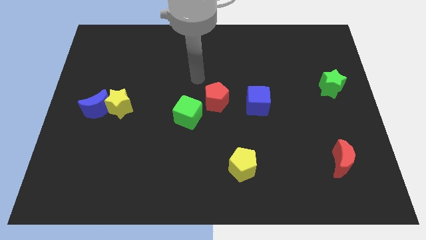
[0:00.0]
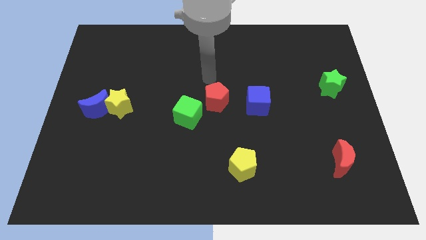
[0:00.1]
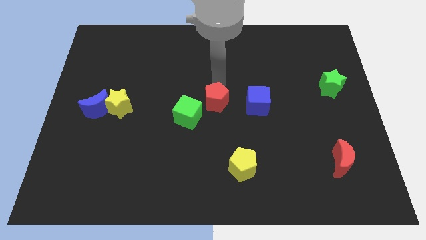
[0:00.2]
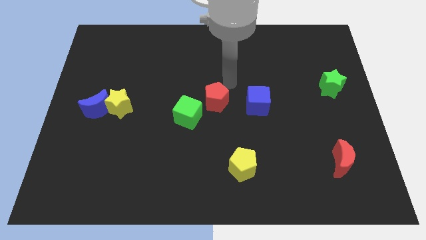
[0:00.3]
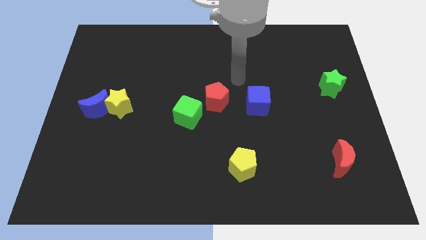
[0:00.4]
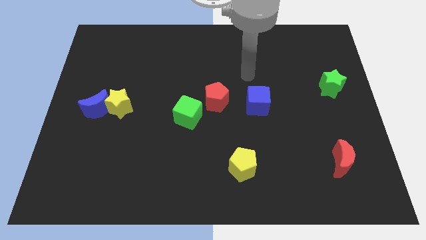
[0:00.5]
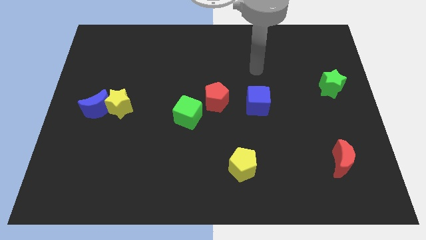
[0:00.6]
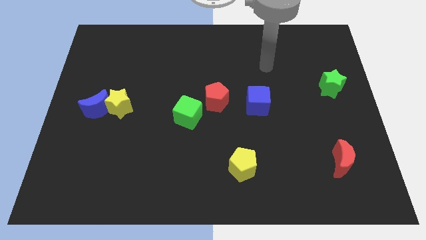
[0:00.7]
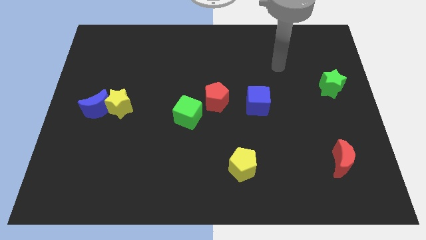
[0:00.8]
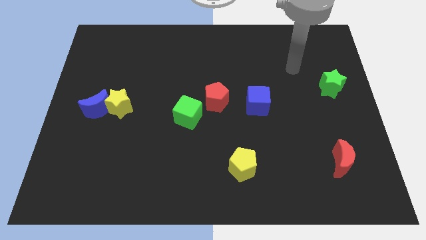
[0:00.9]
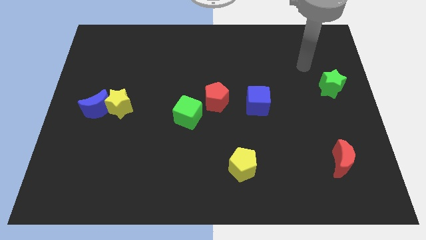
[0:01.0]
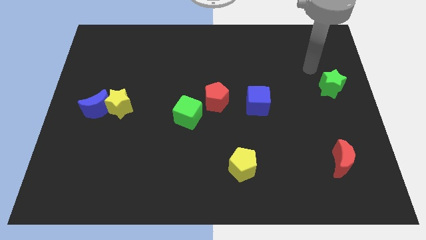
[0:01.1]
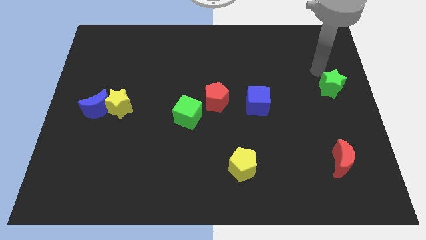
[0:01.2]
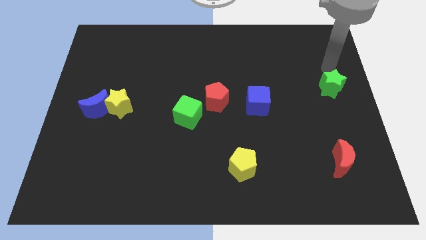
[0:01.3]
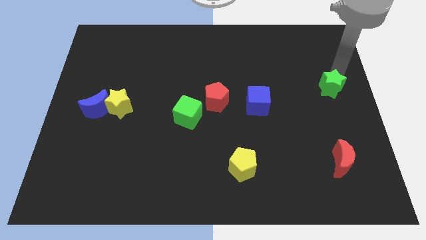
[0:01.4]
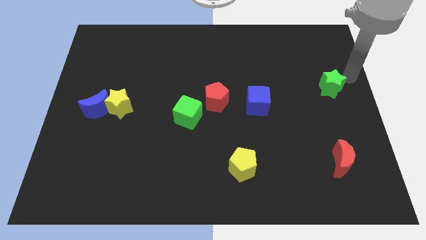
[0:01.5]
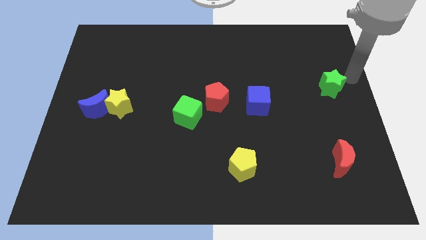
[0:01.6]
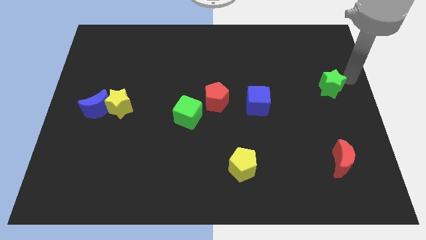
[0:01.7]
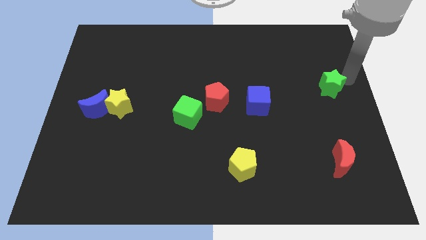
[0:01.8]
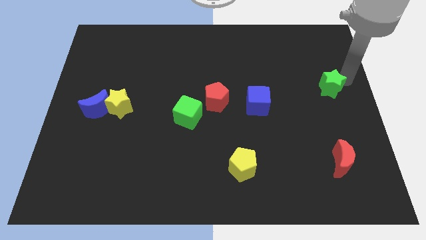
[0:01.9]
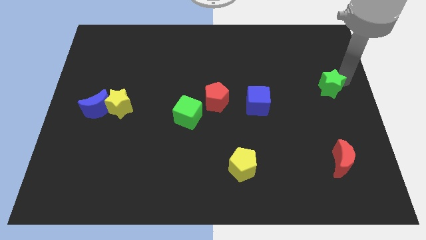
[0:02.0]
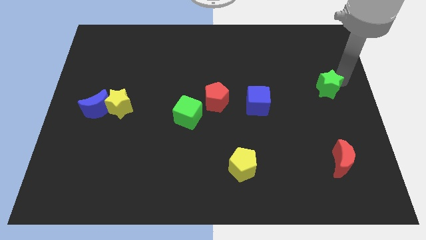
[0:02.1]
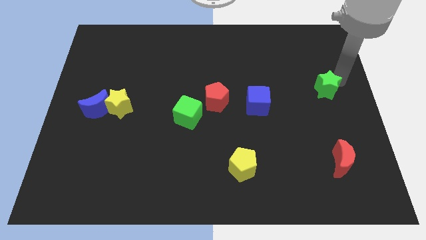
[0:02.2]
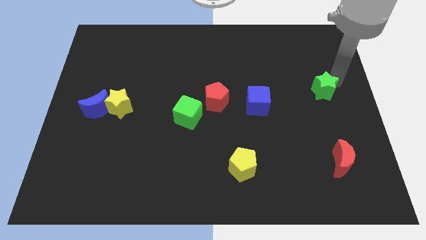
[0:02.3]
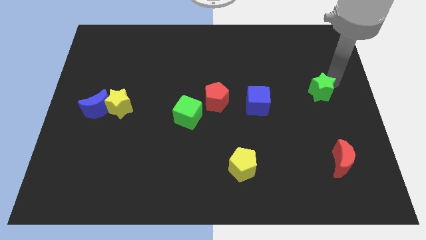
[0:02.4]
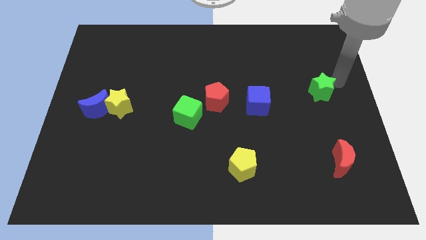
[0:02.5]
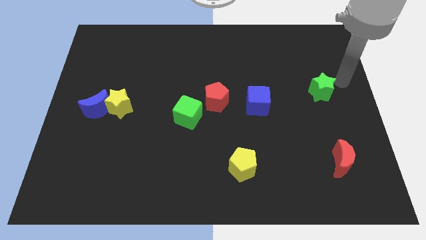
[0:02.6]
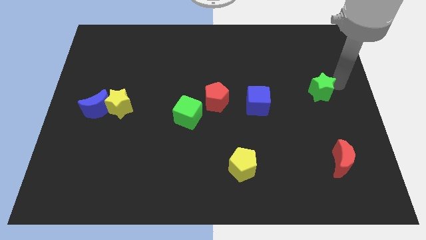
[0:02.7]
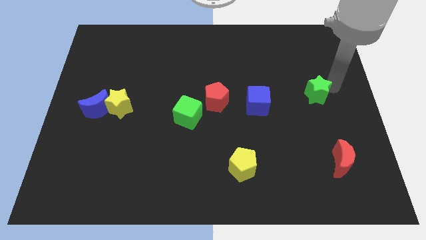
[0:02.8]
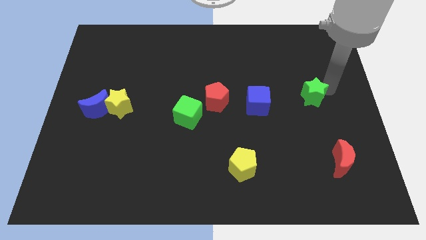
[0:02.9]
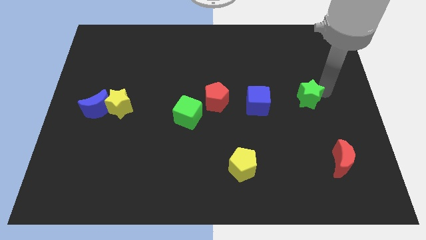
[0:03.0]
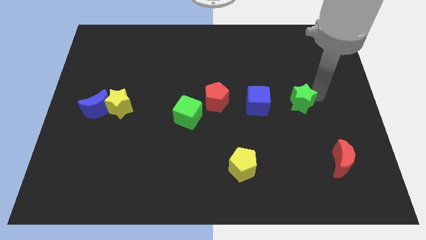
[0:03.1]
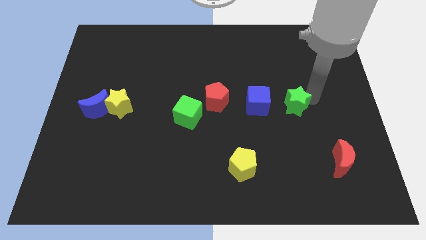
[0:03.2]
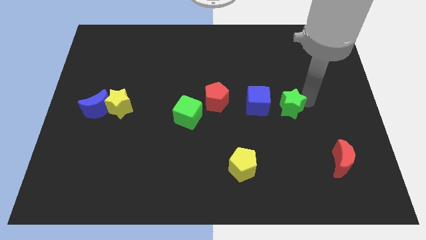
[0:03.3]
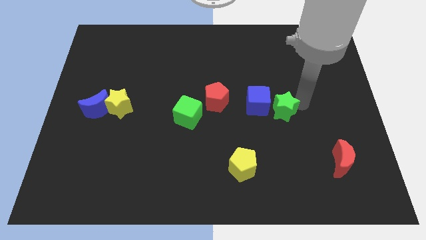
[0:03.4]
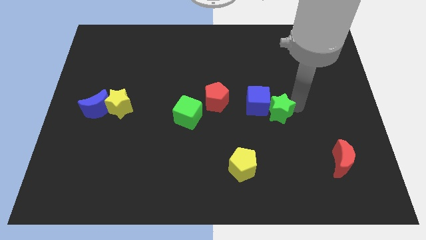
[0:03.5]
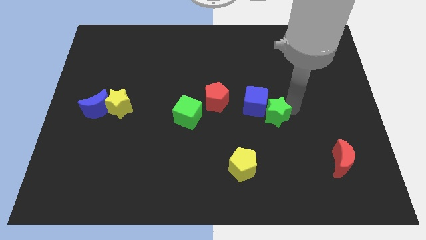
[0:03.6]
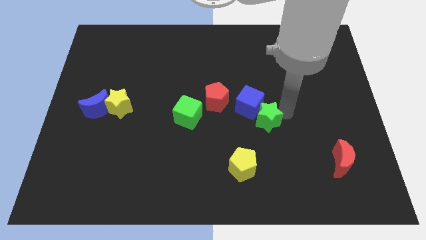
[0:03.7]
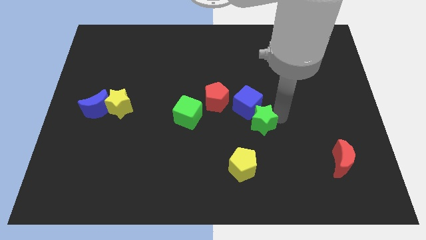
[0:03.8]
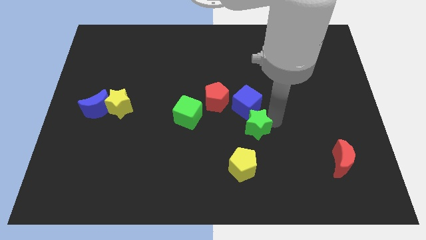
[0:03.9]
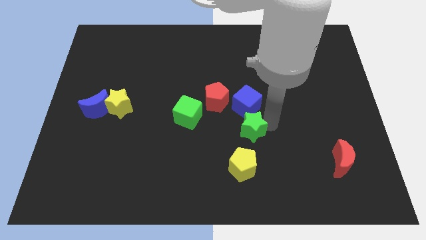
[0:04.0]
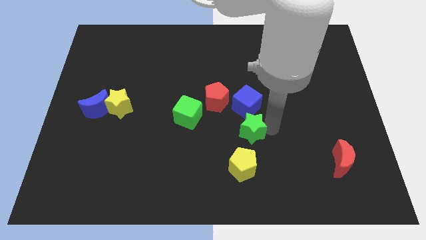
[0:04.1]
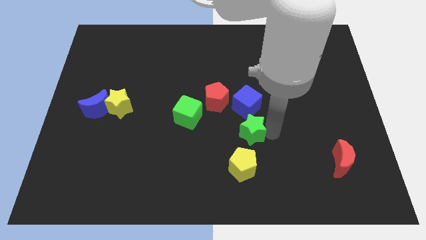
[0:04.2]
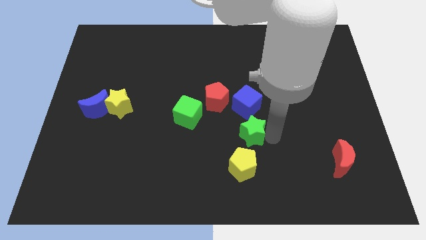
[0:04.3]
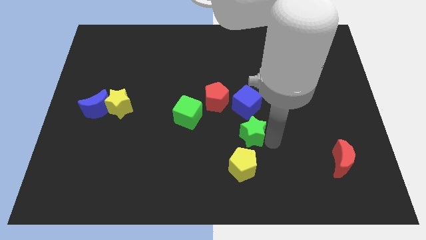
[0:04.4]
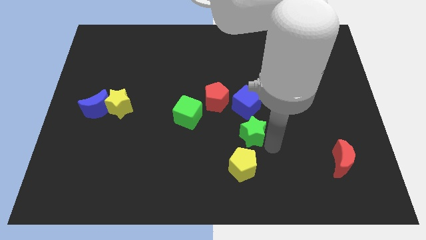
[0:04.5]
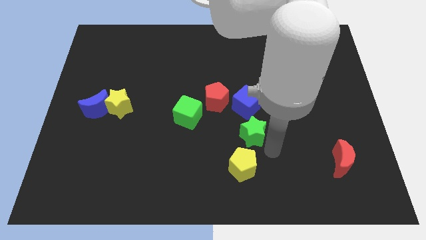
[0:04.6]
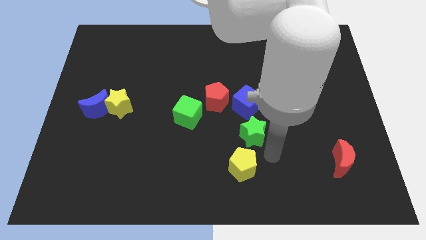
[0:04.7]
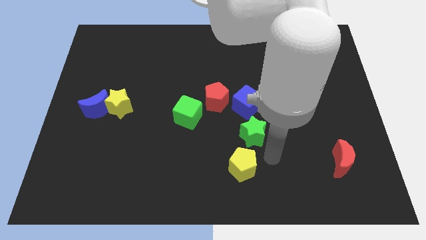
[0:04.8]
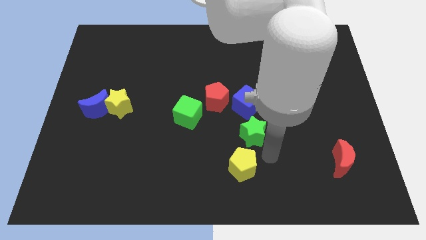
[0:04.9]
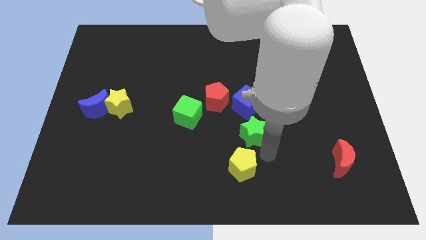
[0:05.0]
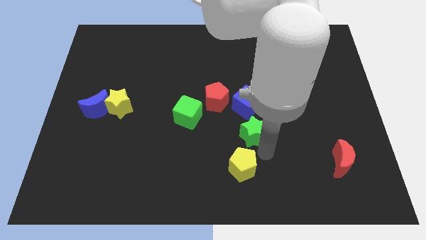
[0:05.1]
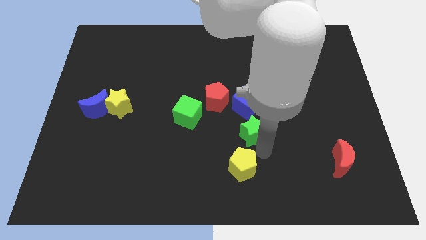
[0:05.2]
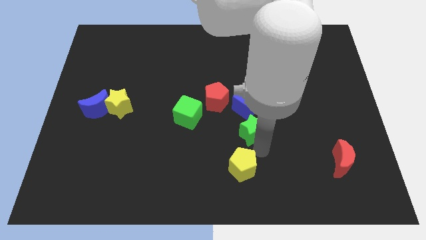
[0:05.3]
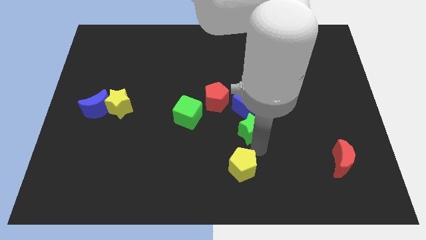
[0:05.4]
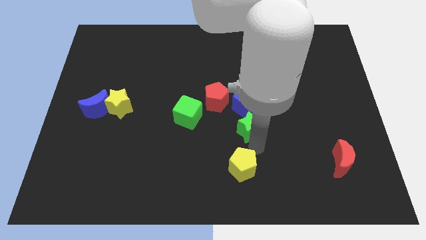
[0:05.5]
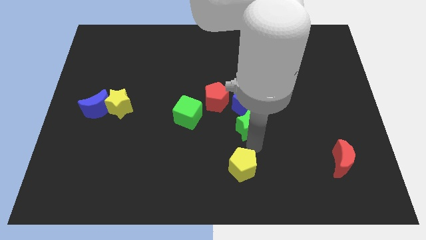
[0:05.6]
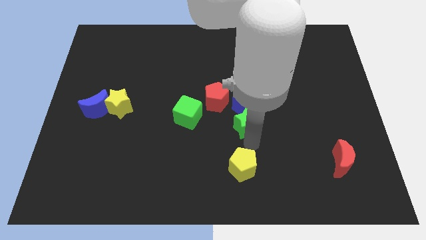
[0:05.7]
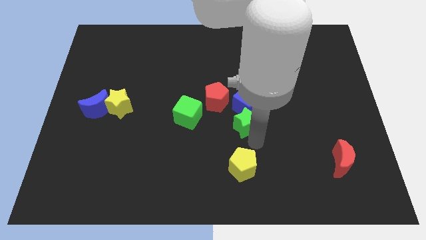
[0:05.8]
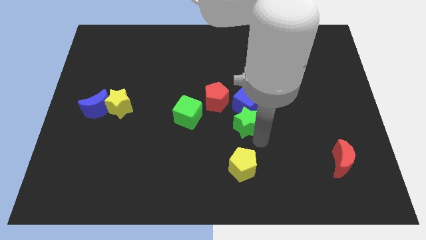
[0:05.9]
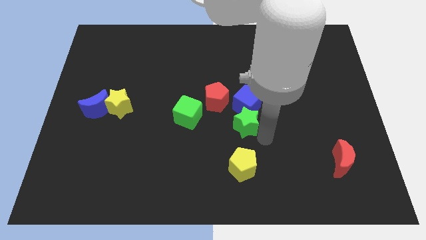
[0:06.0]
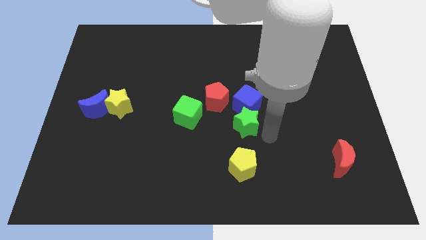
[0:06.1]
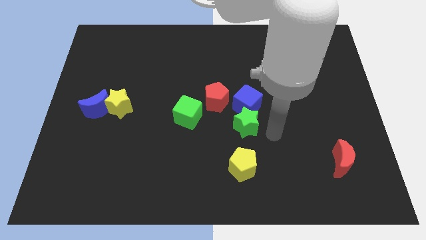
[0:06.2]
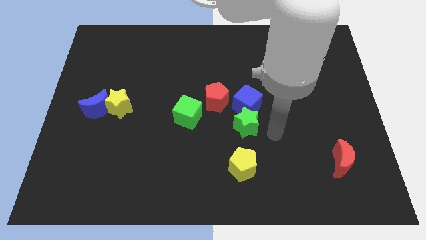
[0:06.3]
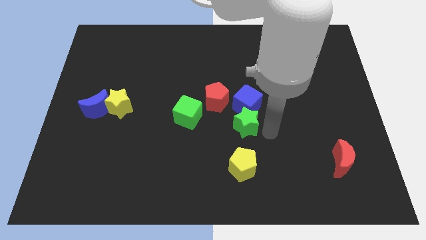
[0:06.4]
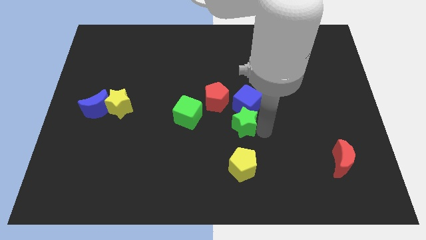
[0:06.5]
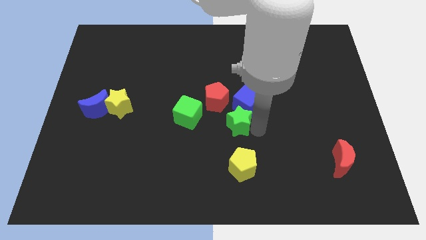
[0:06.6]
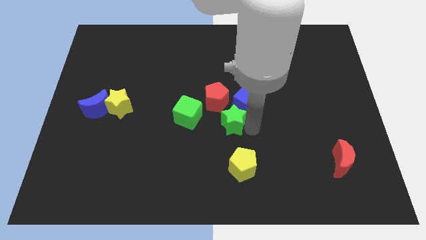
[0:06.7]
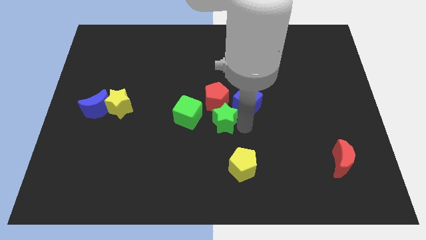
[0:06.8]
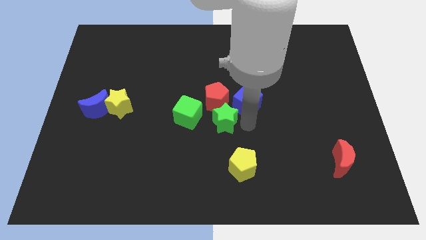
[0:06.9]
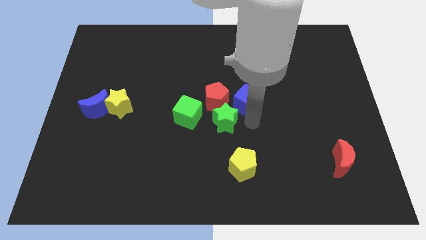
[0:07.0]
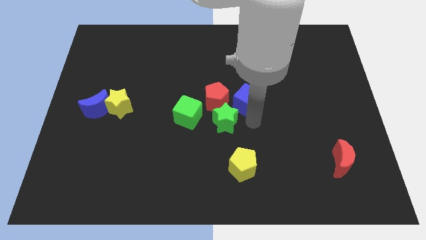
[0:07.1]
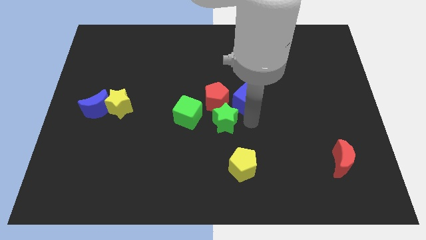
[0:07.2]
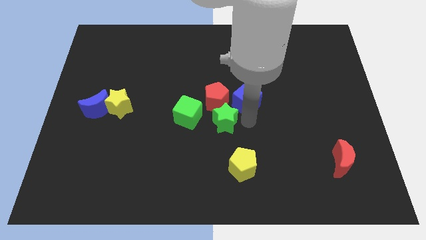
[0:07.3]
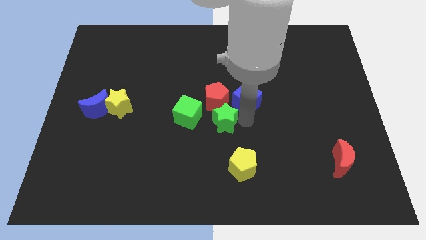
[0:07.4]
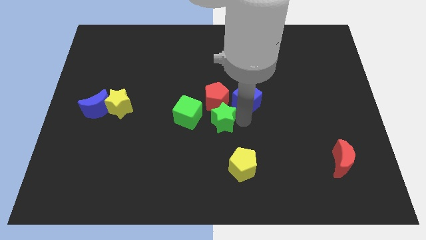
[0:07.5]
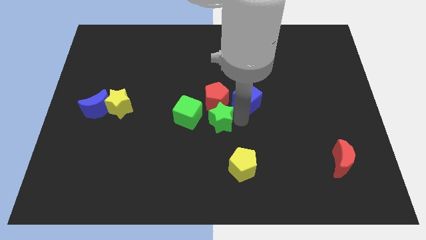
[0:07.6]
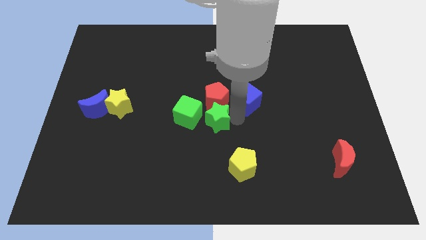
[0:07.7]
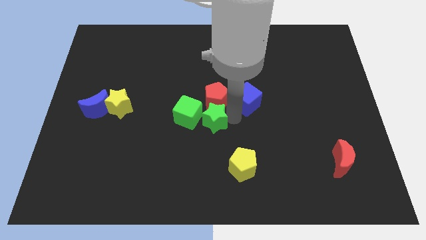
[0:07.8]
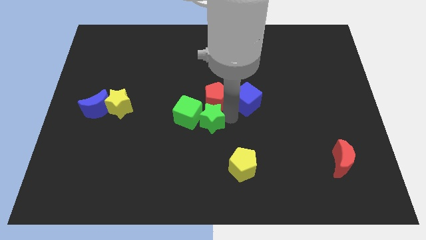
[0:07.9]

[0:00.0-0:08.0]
push the green star next to the green cube
